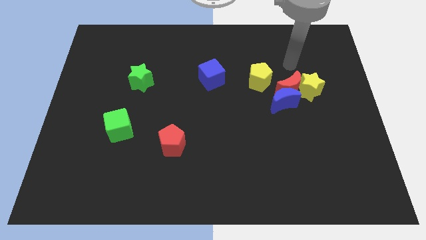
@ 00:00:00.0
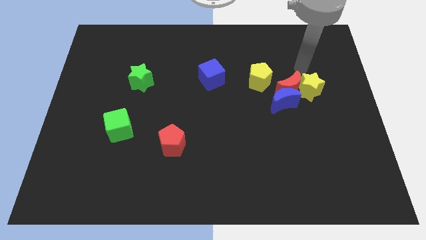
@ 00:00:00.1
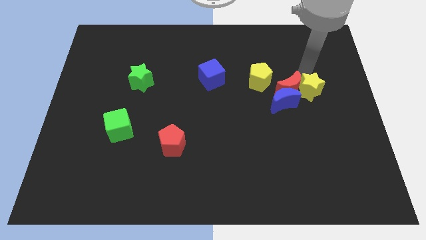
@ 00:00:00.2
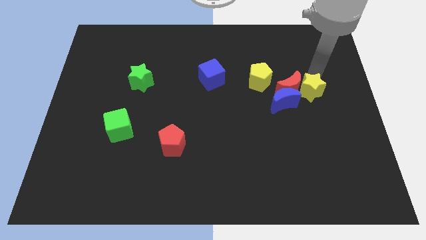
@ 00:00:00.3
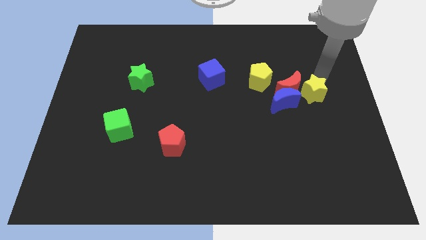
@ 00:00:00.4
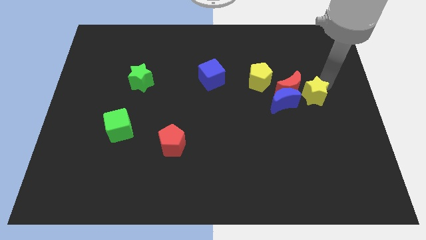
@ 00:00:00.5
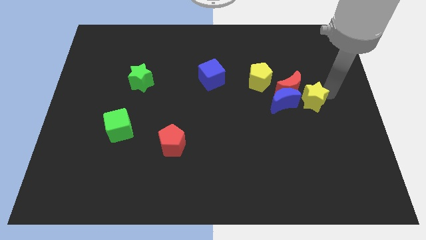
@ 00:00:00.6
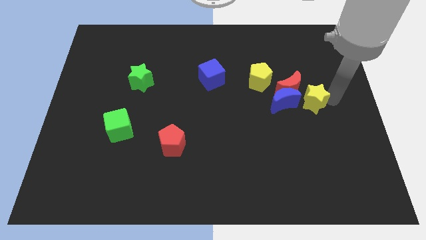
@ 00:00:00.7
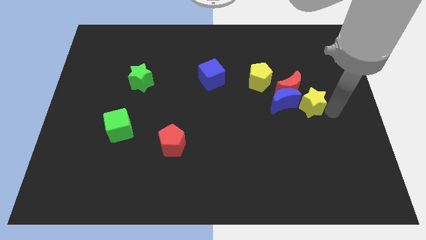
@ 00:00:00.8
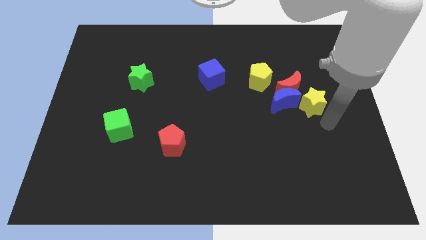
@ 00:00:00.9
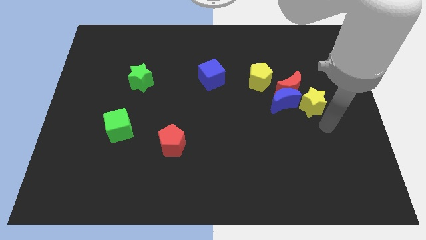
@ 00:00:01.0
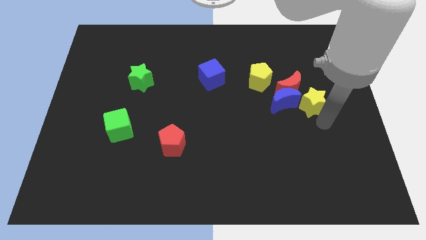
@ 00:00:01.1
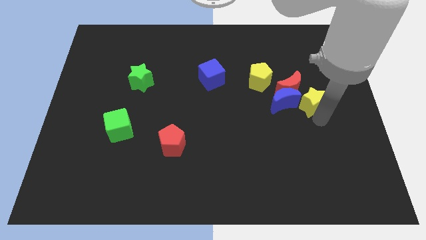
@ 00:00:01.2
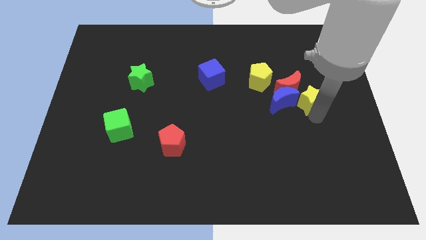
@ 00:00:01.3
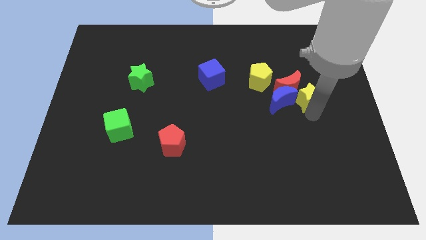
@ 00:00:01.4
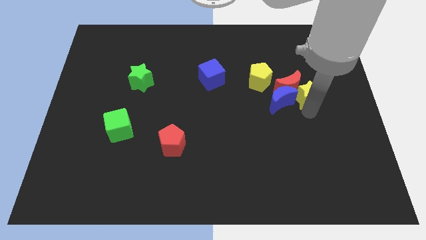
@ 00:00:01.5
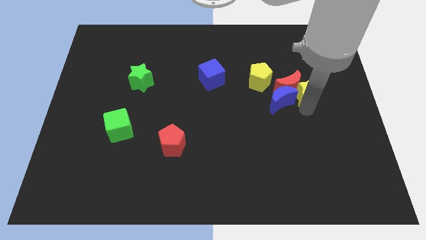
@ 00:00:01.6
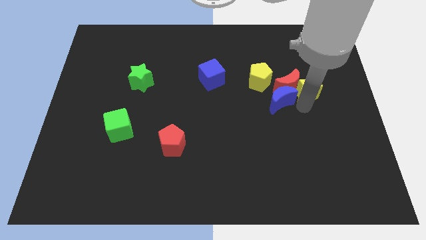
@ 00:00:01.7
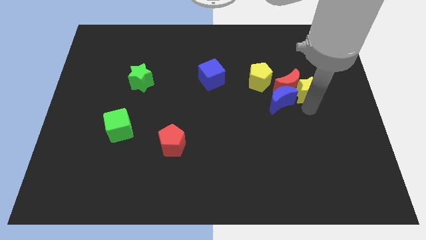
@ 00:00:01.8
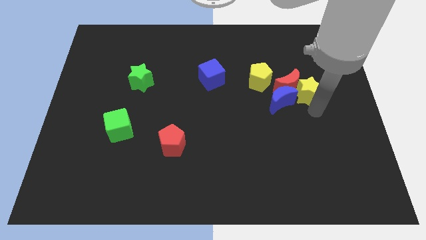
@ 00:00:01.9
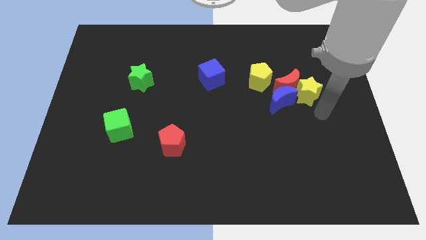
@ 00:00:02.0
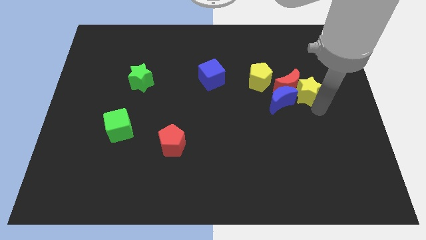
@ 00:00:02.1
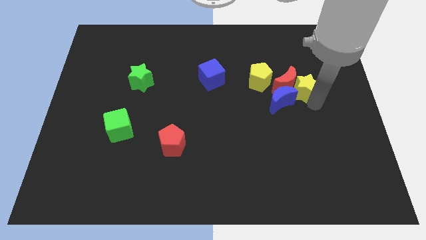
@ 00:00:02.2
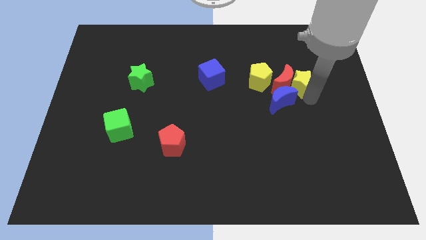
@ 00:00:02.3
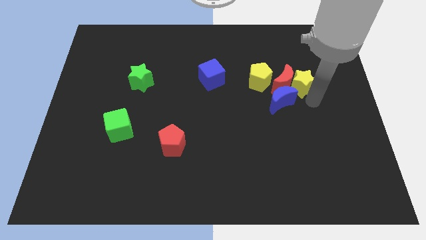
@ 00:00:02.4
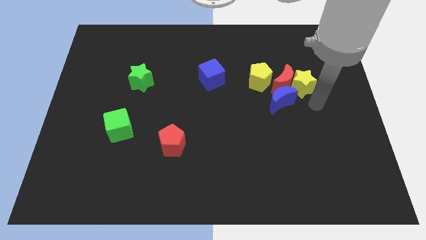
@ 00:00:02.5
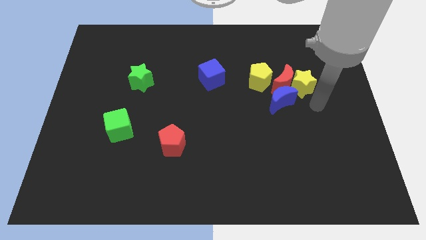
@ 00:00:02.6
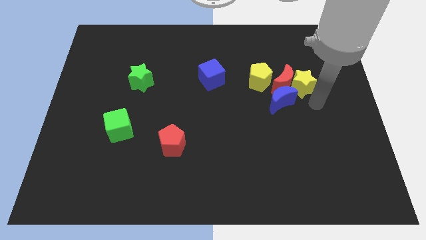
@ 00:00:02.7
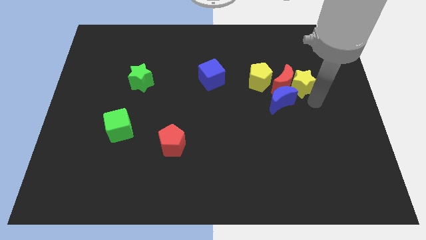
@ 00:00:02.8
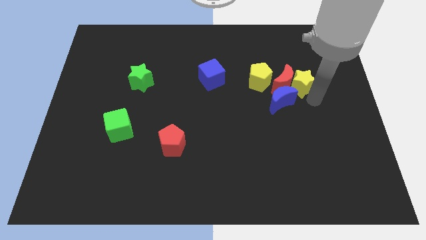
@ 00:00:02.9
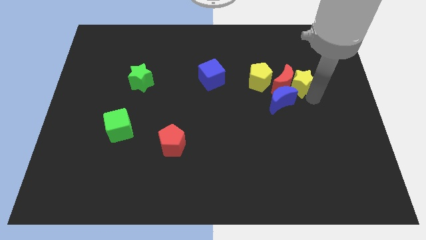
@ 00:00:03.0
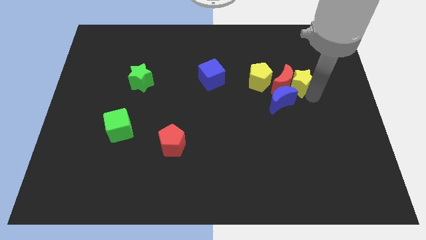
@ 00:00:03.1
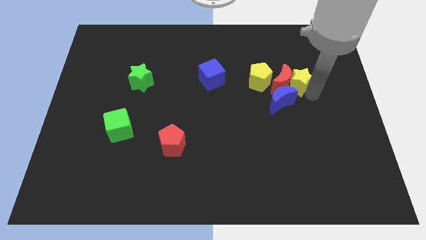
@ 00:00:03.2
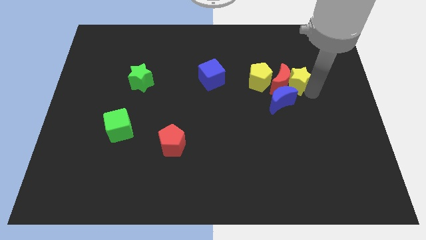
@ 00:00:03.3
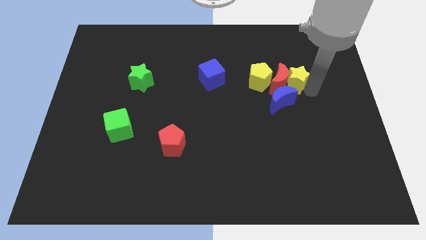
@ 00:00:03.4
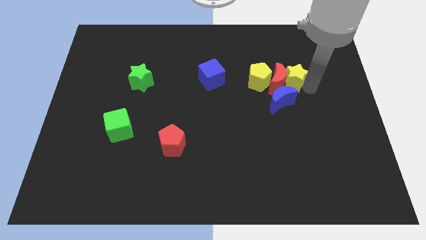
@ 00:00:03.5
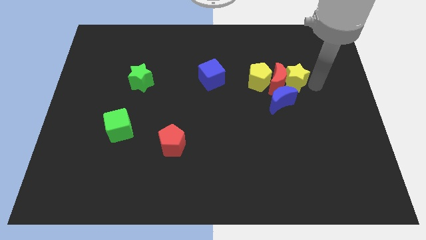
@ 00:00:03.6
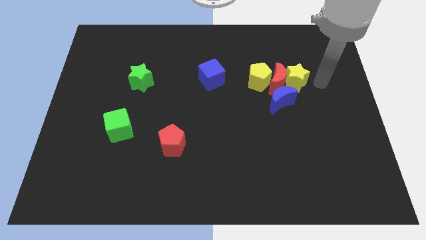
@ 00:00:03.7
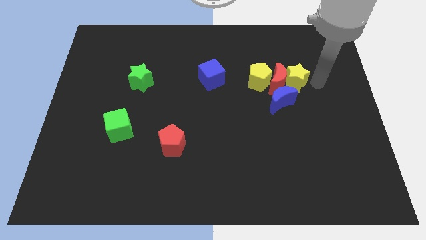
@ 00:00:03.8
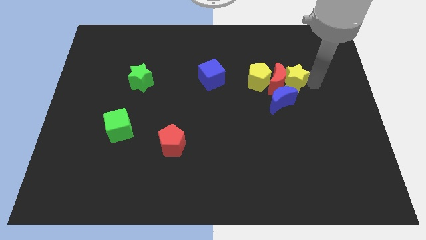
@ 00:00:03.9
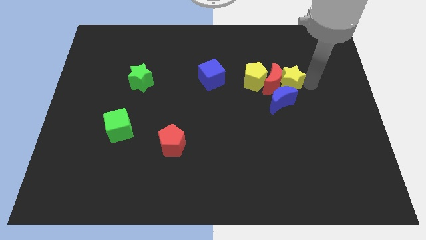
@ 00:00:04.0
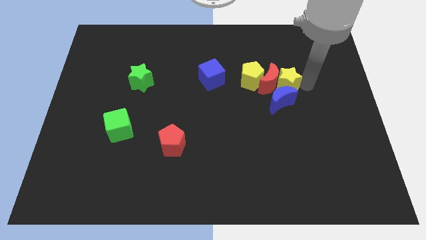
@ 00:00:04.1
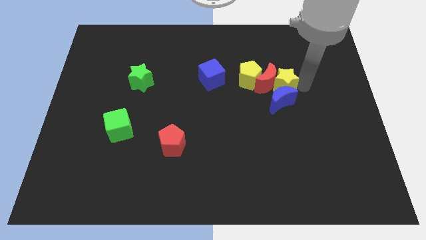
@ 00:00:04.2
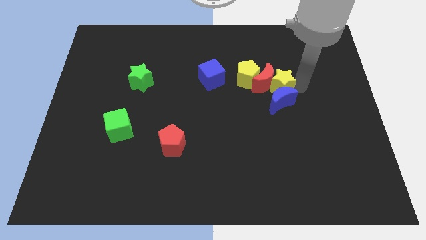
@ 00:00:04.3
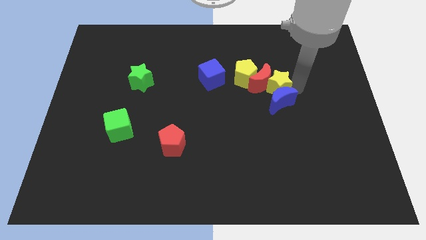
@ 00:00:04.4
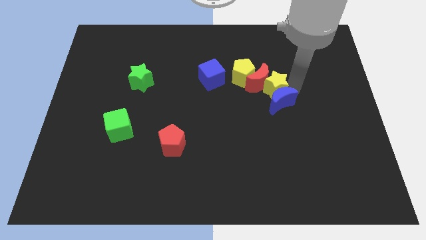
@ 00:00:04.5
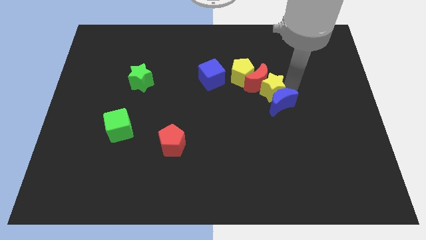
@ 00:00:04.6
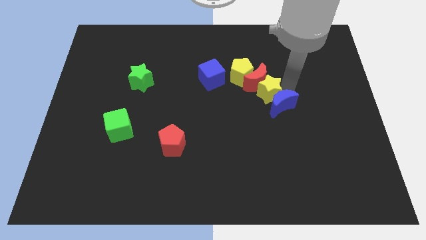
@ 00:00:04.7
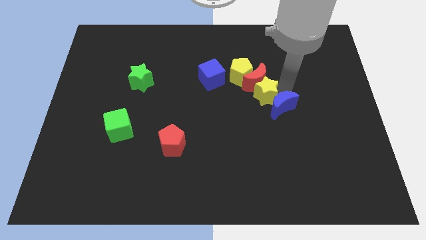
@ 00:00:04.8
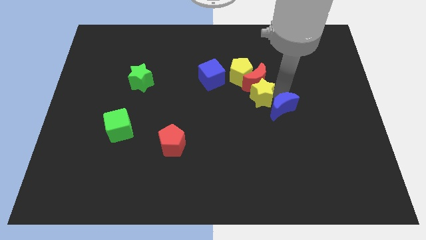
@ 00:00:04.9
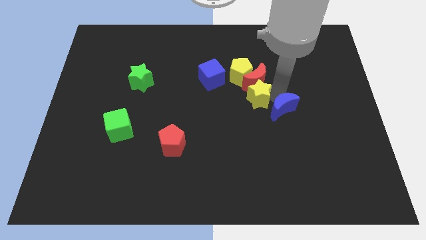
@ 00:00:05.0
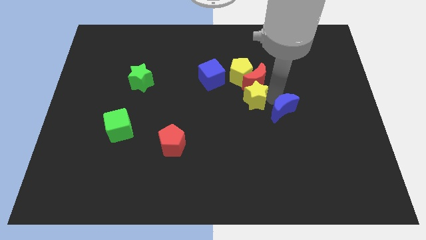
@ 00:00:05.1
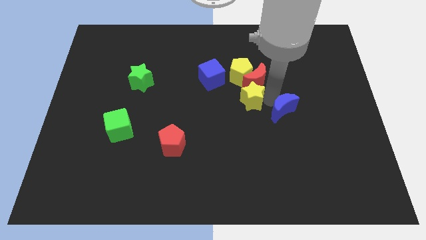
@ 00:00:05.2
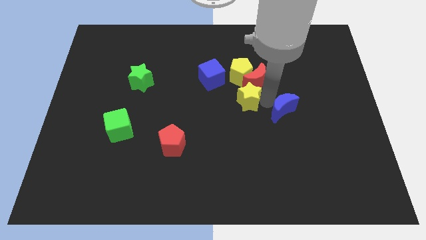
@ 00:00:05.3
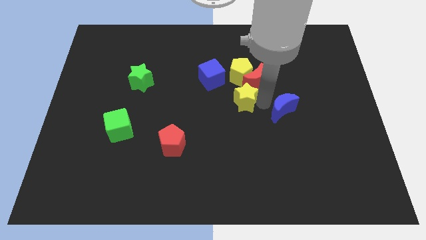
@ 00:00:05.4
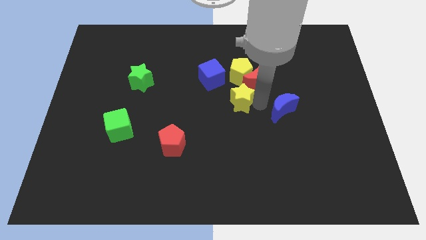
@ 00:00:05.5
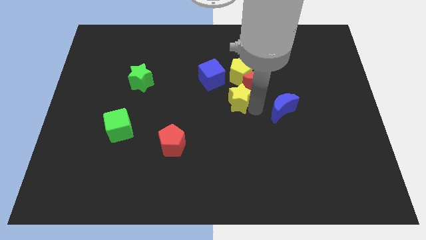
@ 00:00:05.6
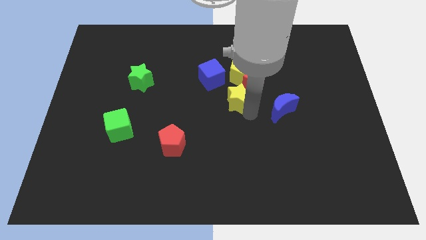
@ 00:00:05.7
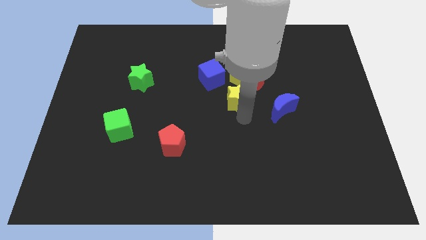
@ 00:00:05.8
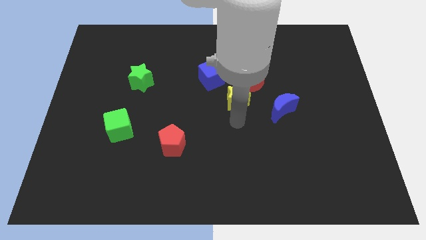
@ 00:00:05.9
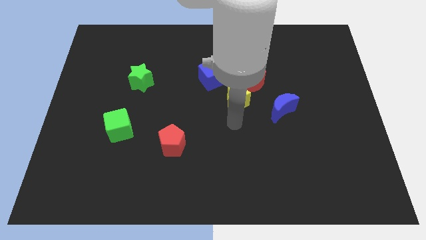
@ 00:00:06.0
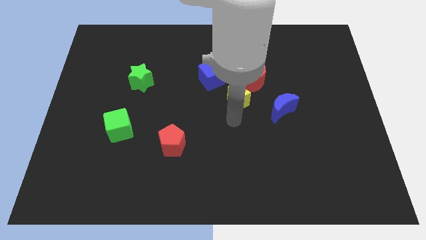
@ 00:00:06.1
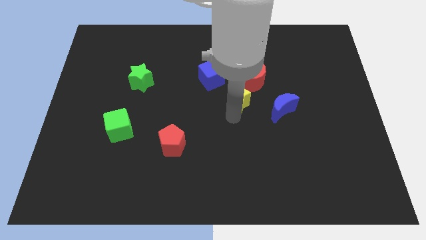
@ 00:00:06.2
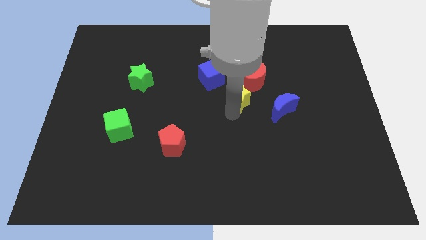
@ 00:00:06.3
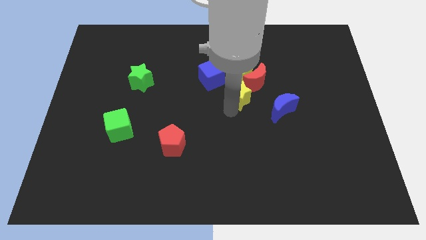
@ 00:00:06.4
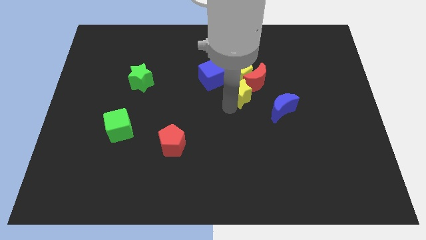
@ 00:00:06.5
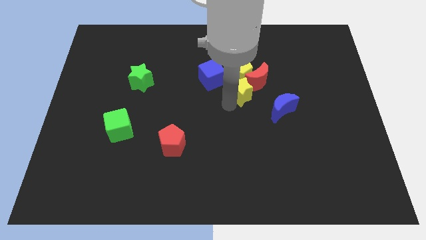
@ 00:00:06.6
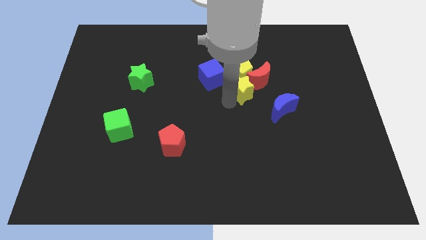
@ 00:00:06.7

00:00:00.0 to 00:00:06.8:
push the yellow star towards the yellow pentagon

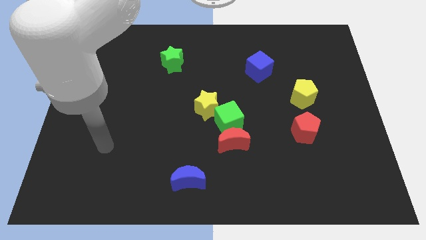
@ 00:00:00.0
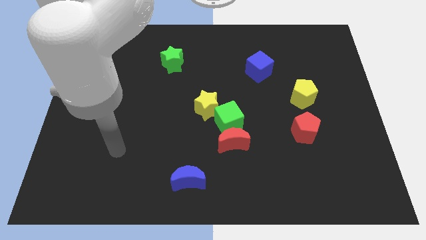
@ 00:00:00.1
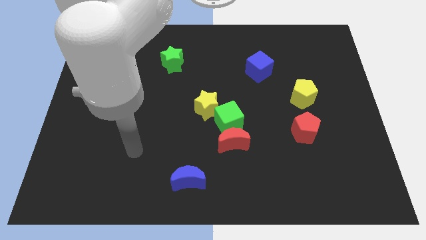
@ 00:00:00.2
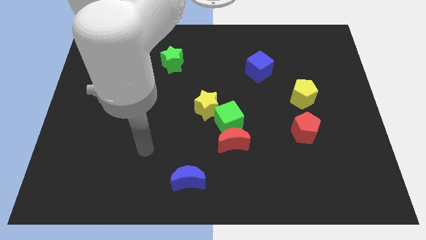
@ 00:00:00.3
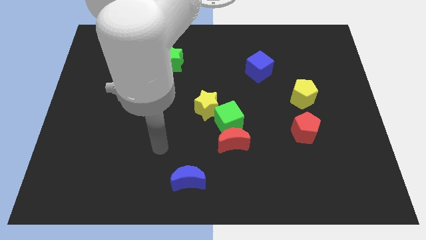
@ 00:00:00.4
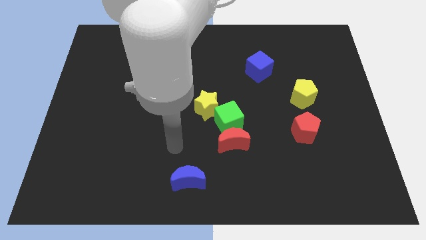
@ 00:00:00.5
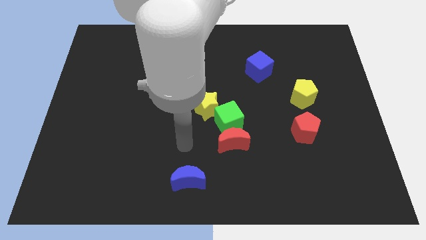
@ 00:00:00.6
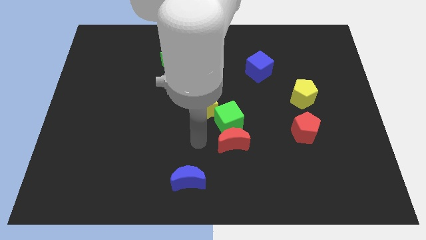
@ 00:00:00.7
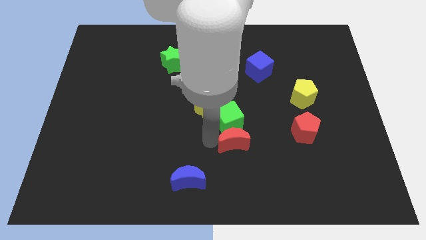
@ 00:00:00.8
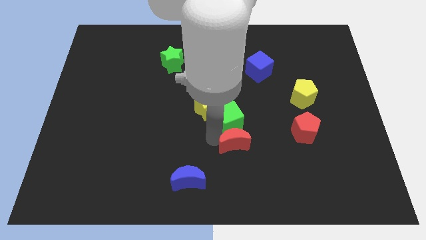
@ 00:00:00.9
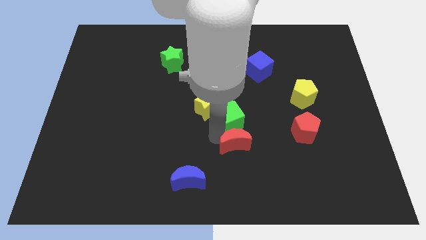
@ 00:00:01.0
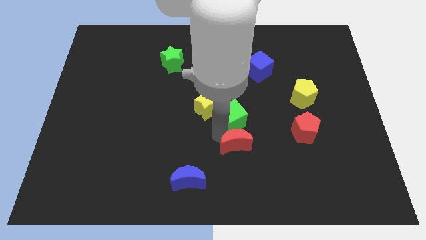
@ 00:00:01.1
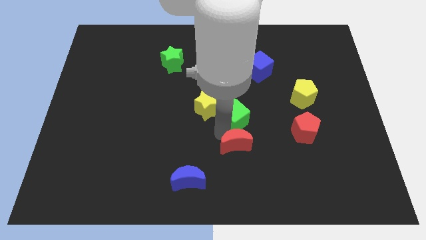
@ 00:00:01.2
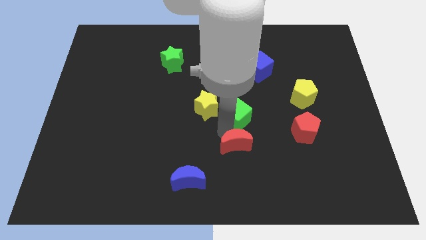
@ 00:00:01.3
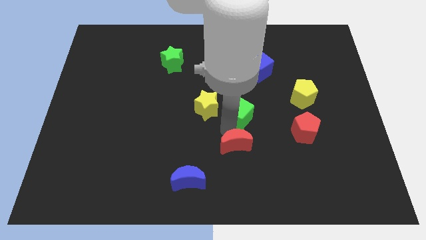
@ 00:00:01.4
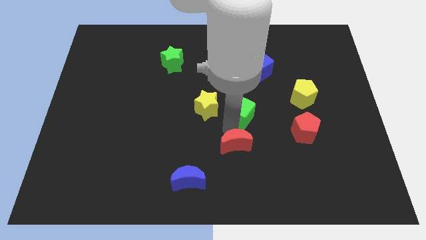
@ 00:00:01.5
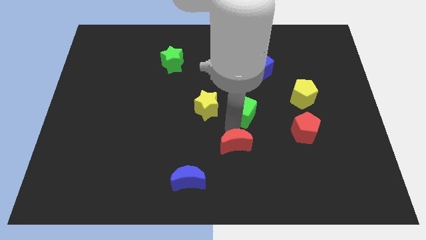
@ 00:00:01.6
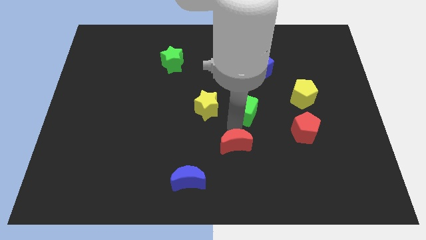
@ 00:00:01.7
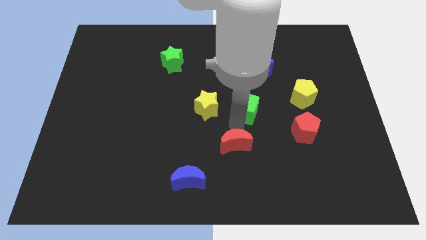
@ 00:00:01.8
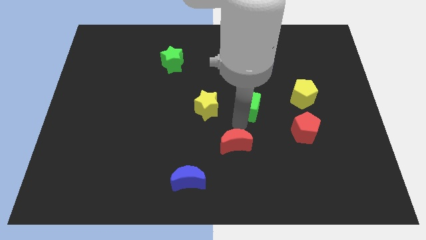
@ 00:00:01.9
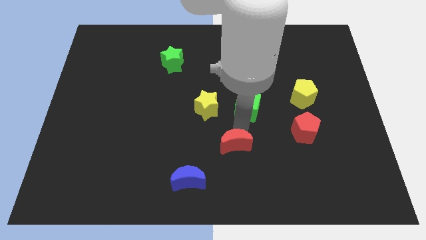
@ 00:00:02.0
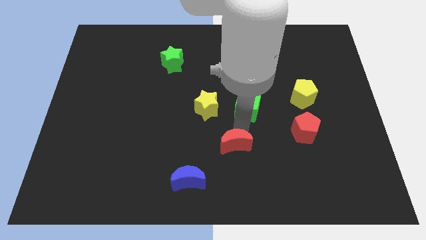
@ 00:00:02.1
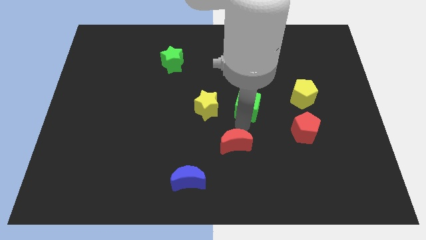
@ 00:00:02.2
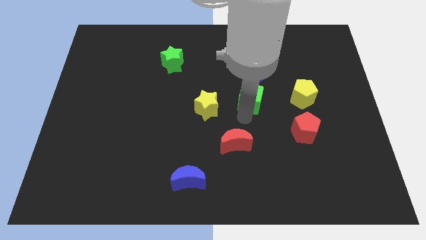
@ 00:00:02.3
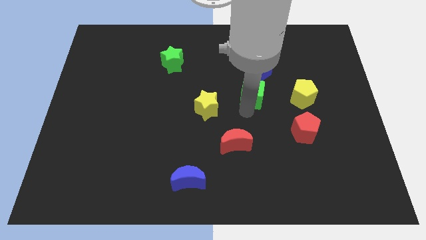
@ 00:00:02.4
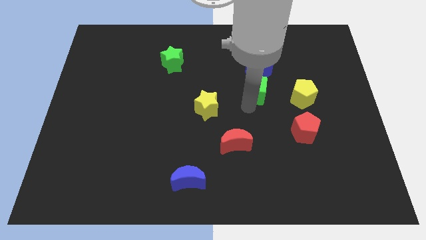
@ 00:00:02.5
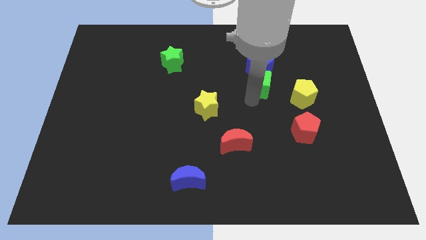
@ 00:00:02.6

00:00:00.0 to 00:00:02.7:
push the green cube close to the blue cube
